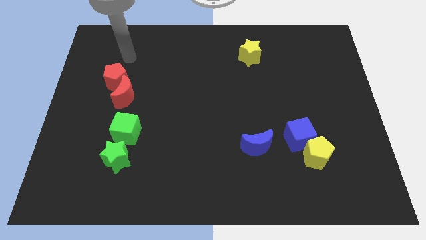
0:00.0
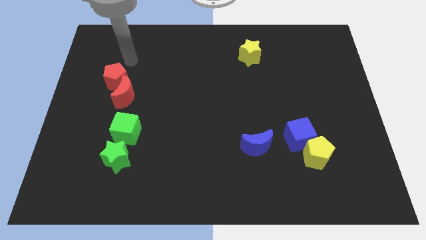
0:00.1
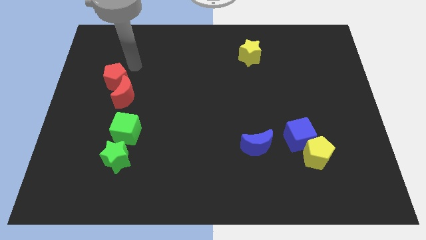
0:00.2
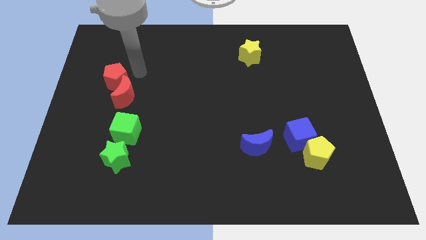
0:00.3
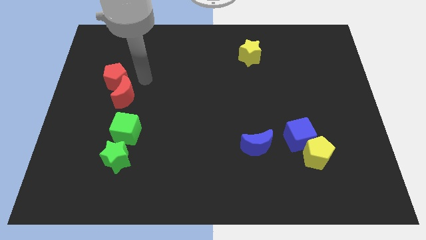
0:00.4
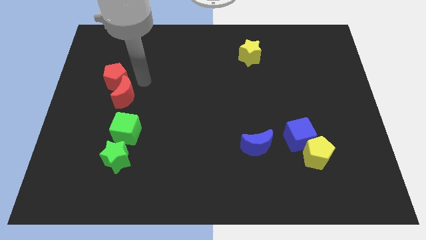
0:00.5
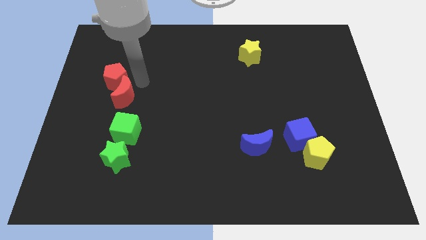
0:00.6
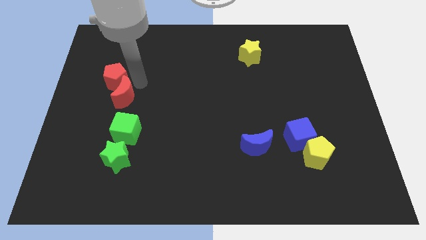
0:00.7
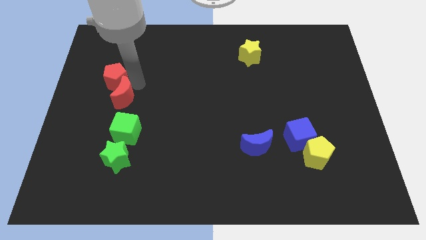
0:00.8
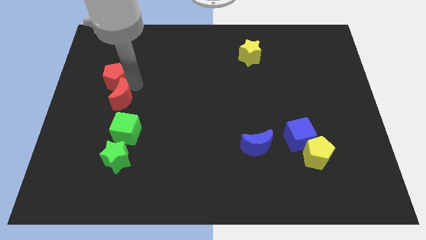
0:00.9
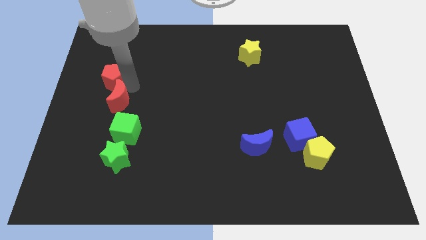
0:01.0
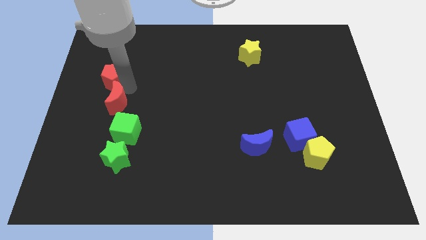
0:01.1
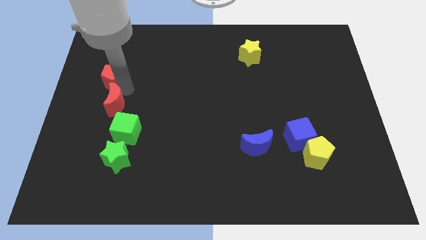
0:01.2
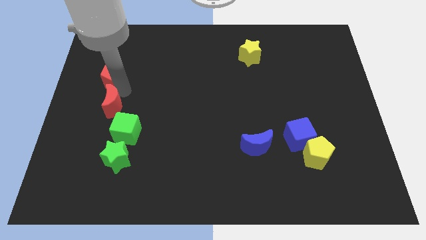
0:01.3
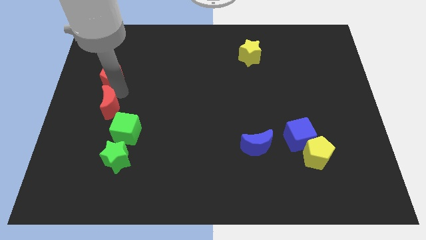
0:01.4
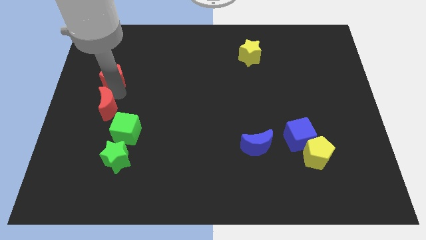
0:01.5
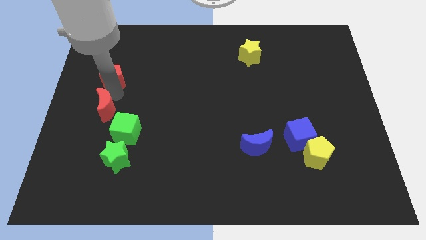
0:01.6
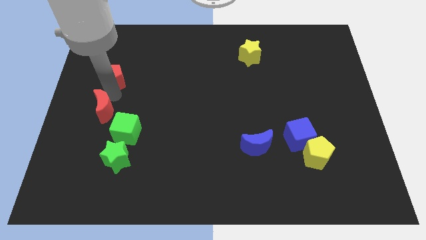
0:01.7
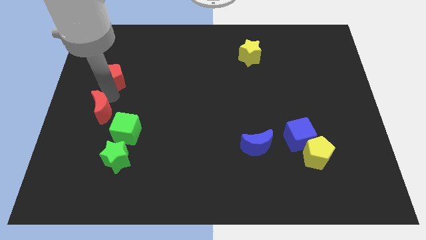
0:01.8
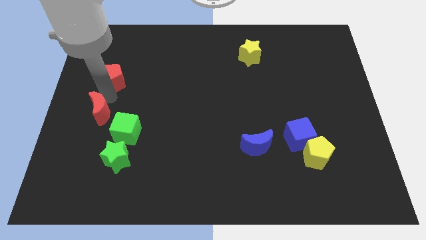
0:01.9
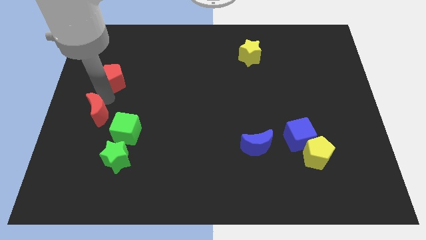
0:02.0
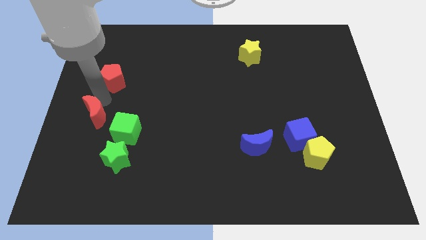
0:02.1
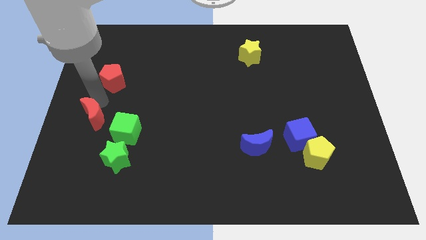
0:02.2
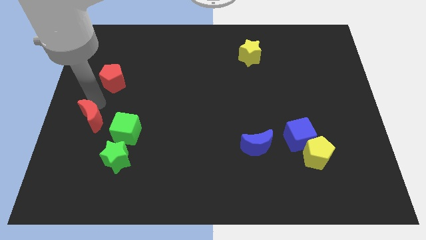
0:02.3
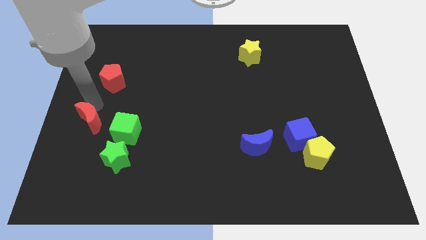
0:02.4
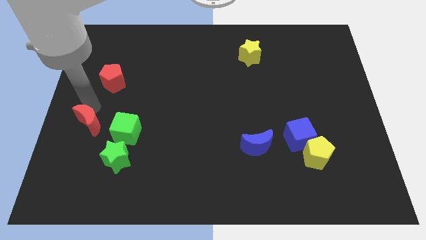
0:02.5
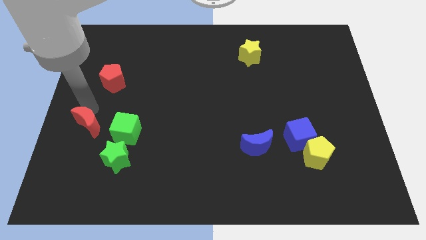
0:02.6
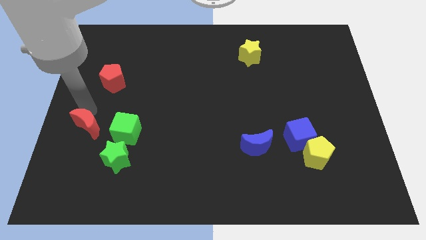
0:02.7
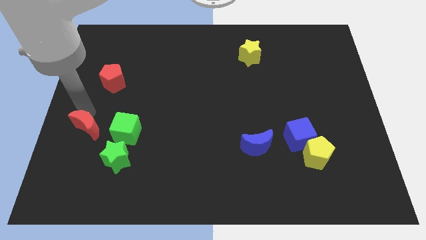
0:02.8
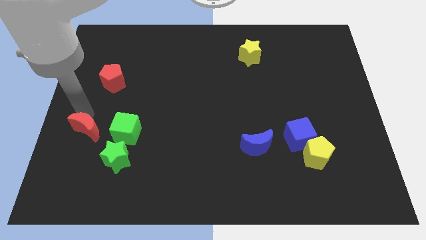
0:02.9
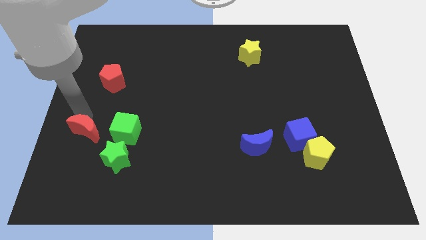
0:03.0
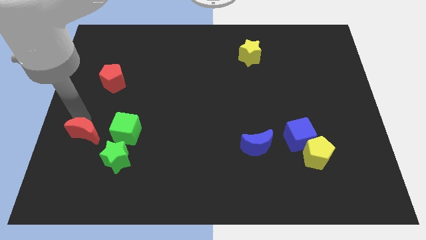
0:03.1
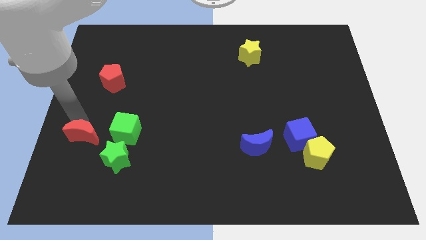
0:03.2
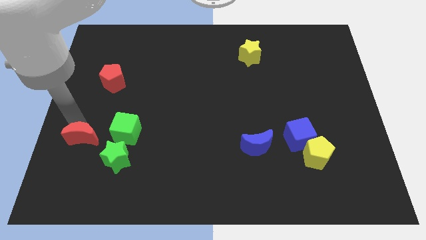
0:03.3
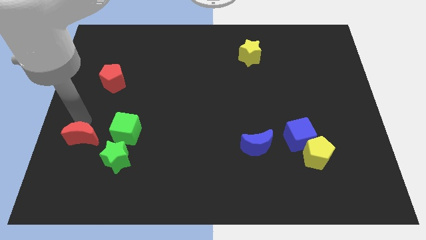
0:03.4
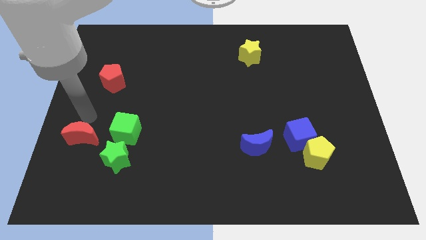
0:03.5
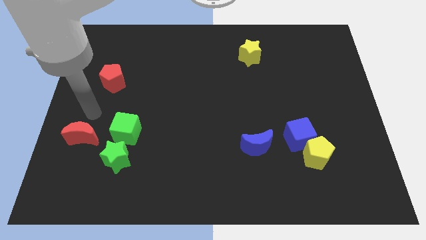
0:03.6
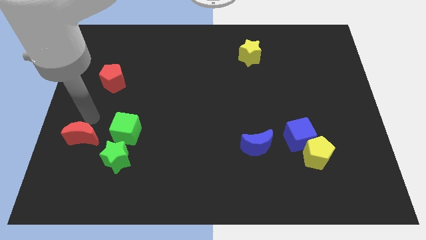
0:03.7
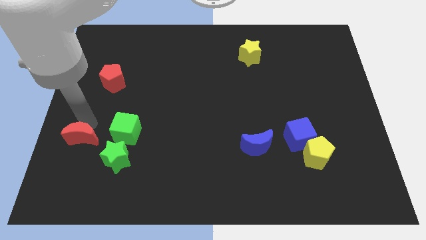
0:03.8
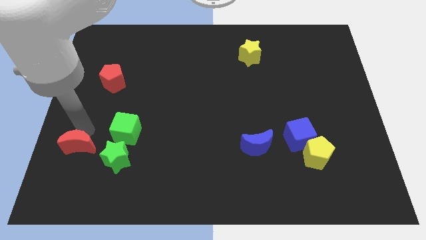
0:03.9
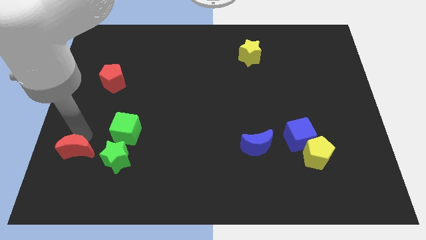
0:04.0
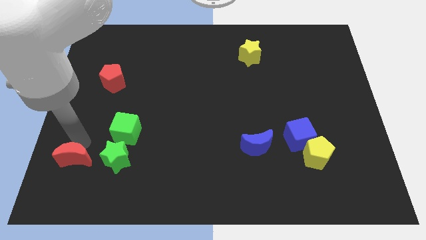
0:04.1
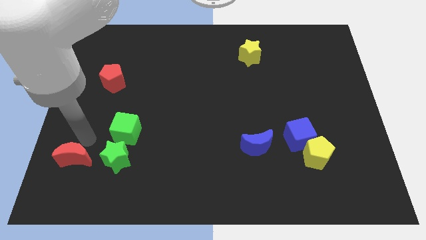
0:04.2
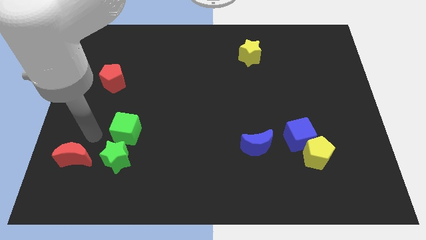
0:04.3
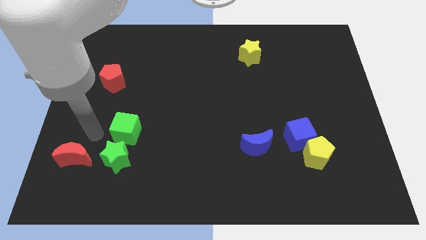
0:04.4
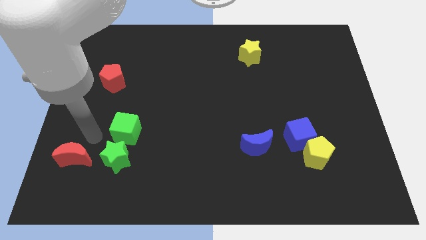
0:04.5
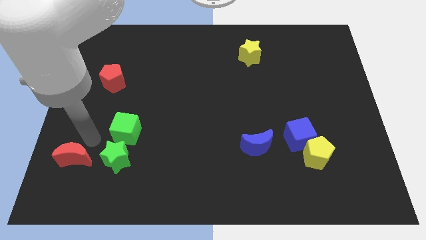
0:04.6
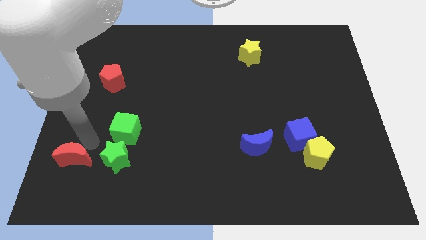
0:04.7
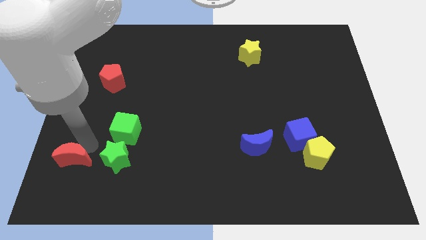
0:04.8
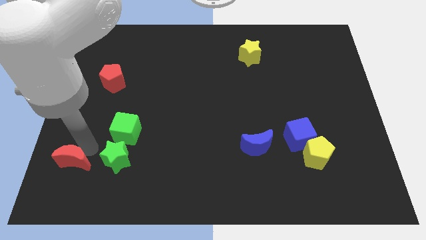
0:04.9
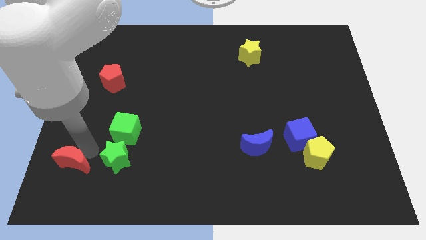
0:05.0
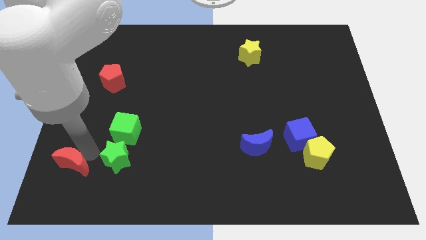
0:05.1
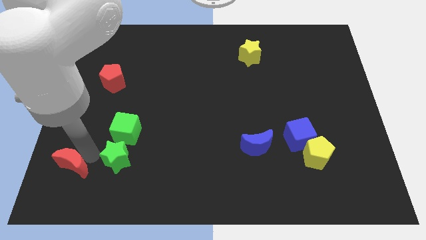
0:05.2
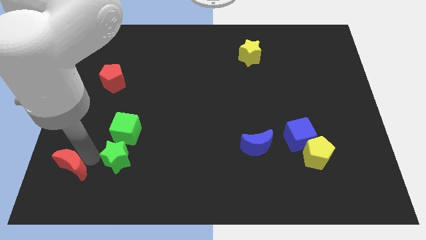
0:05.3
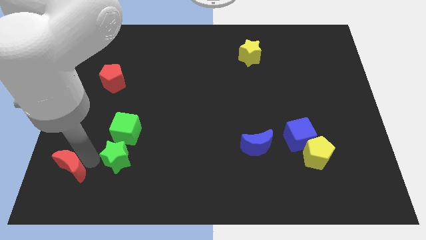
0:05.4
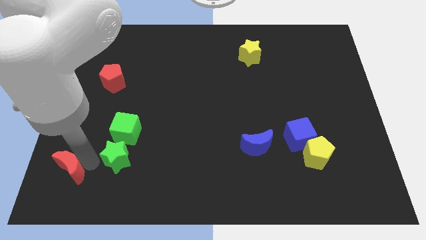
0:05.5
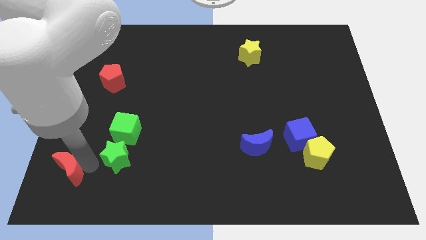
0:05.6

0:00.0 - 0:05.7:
slide the red moon to the lower left corner

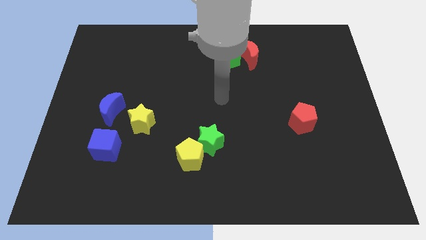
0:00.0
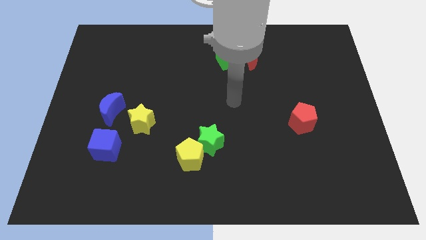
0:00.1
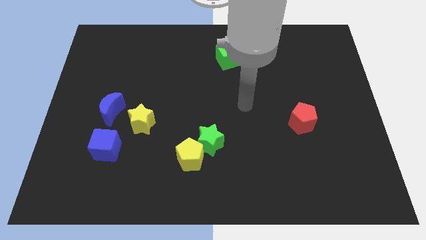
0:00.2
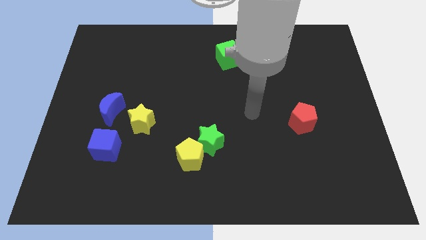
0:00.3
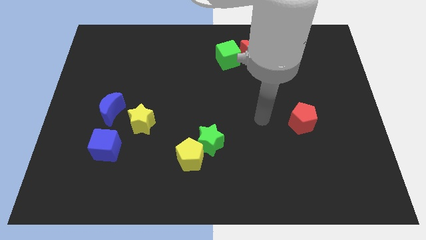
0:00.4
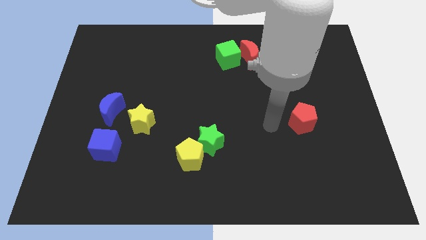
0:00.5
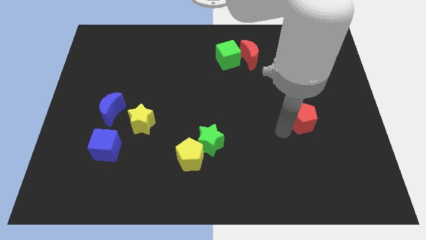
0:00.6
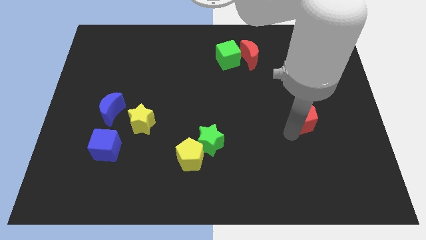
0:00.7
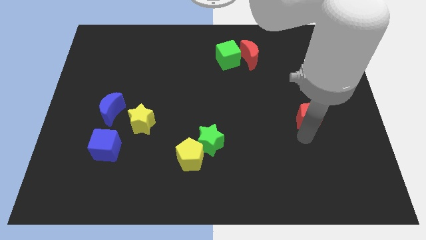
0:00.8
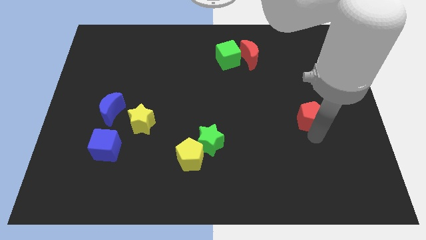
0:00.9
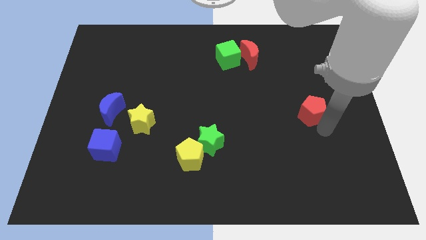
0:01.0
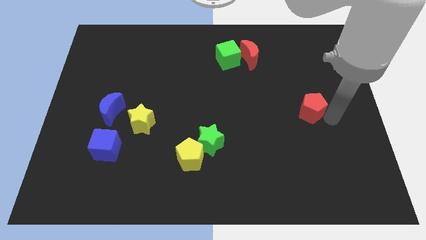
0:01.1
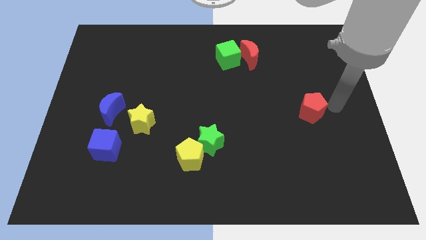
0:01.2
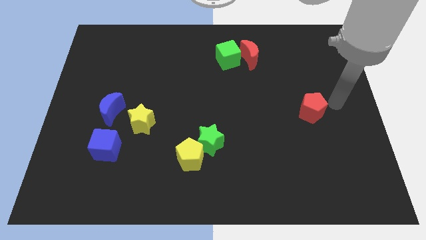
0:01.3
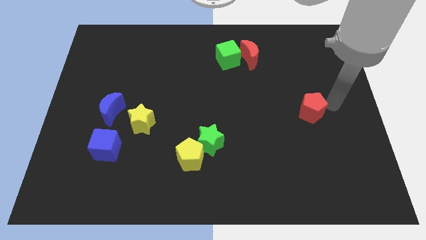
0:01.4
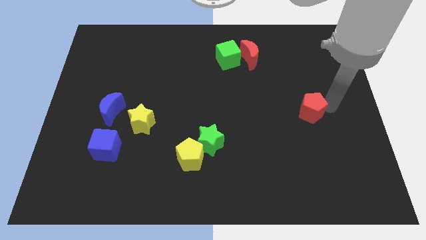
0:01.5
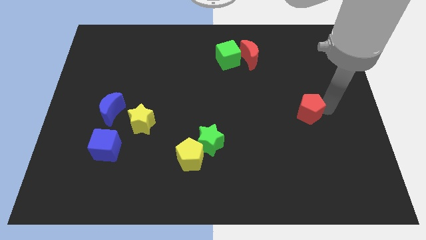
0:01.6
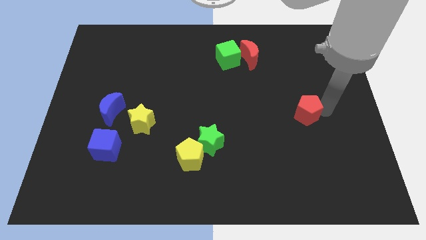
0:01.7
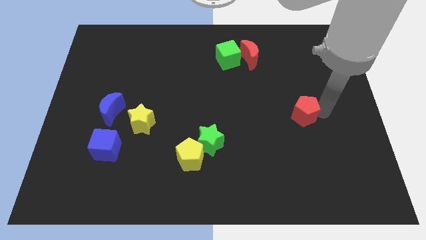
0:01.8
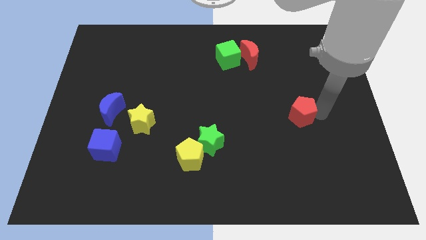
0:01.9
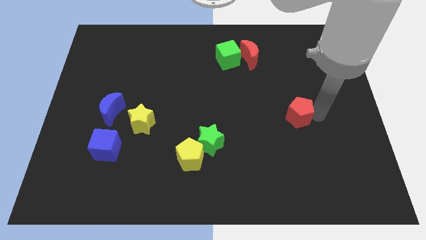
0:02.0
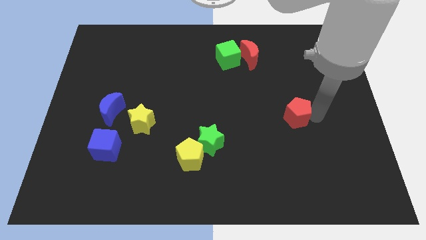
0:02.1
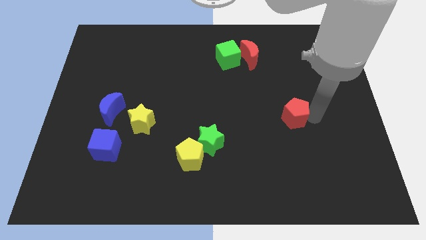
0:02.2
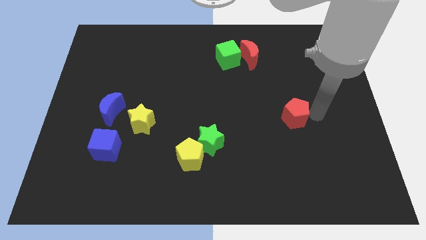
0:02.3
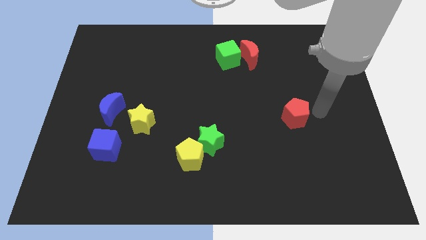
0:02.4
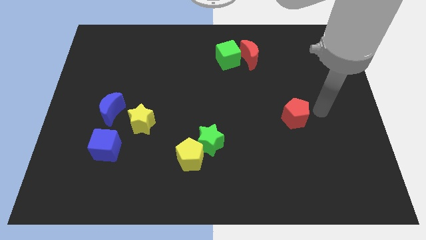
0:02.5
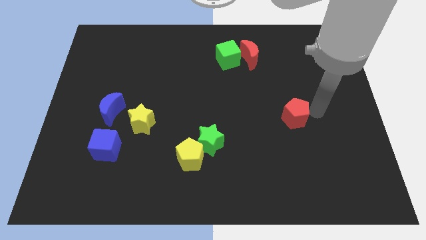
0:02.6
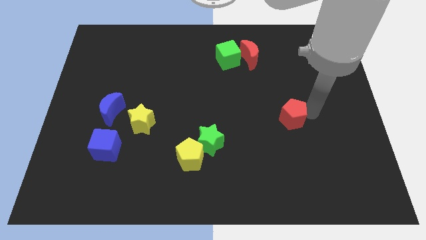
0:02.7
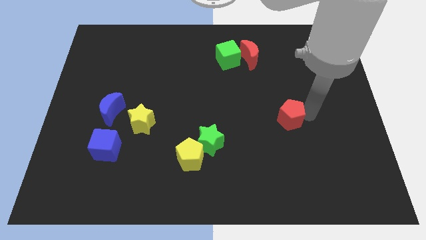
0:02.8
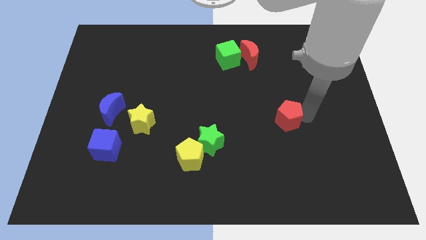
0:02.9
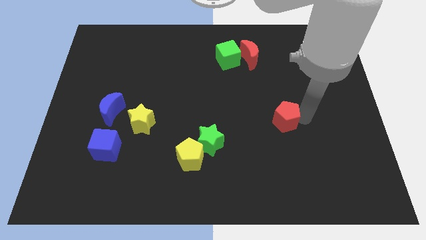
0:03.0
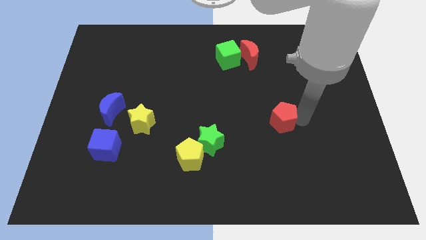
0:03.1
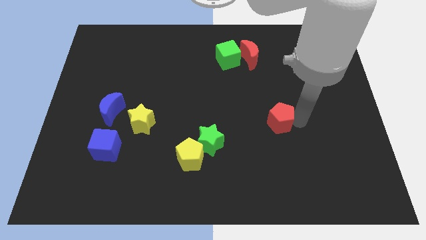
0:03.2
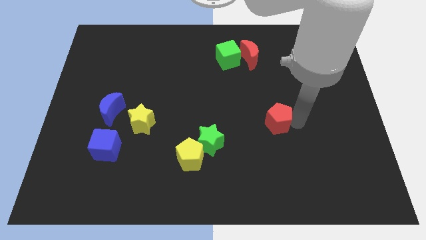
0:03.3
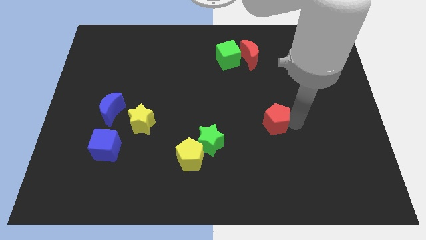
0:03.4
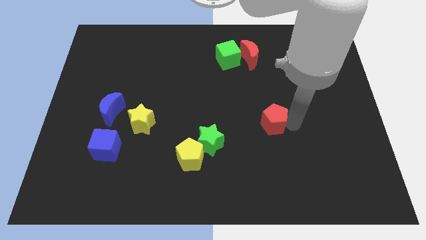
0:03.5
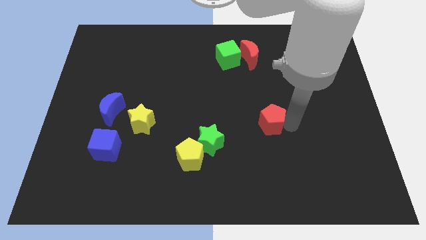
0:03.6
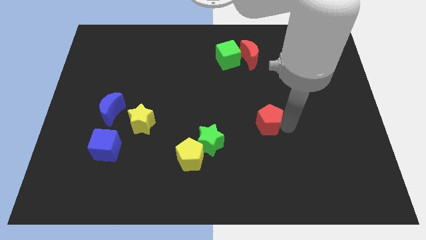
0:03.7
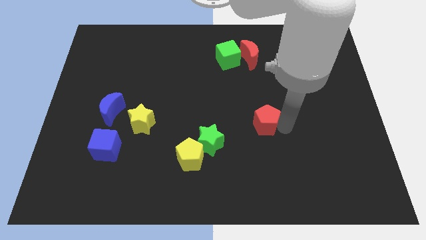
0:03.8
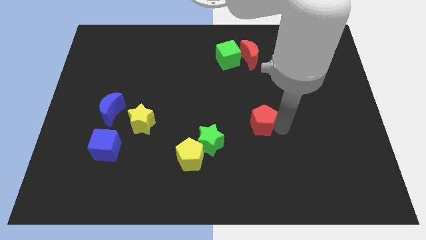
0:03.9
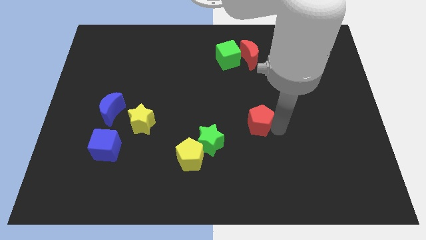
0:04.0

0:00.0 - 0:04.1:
move the red pentagon to the center
